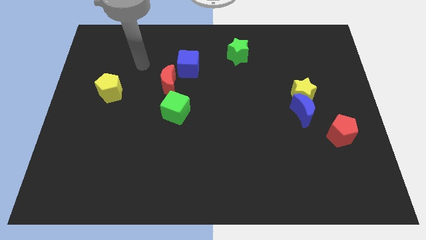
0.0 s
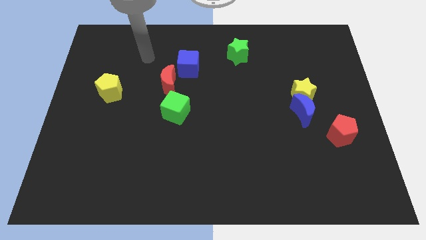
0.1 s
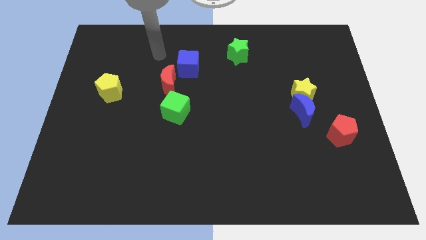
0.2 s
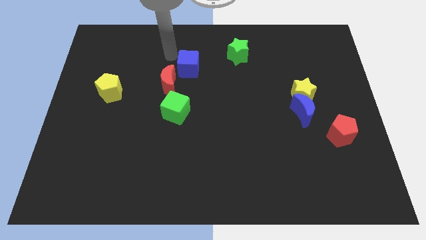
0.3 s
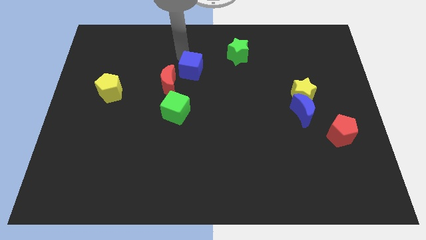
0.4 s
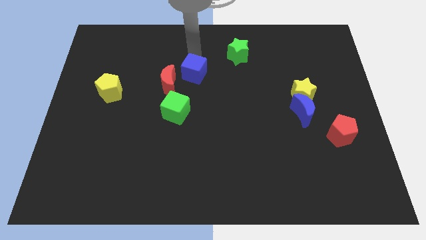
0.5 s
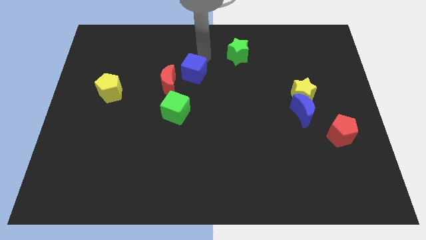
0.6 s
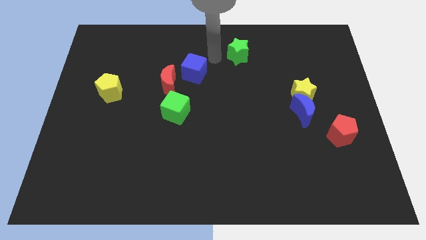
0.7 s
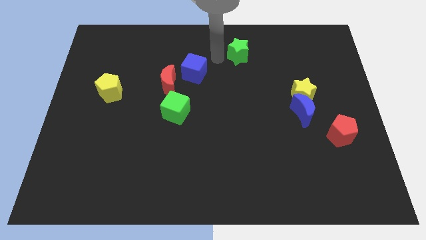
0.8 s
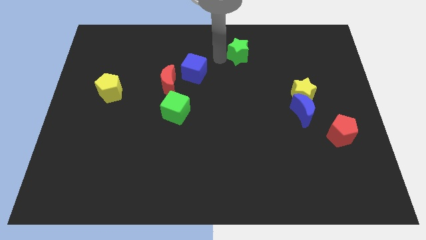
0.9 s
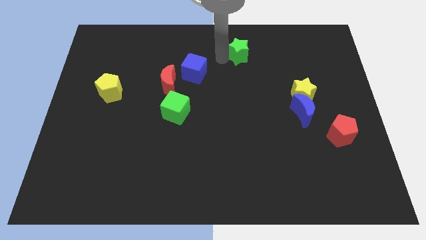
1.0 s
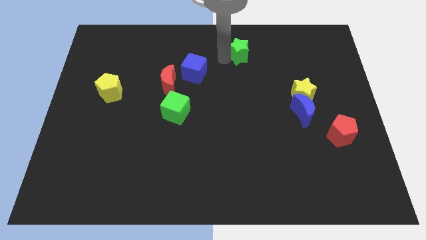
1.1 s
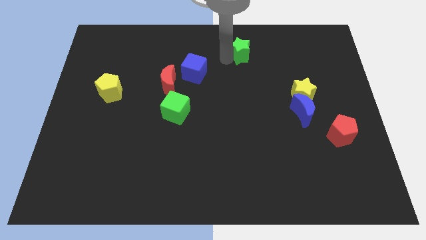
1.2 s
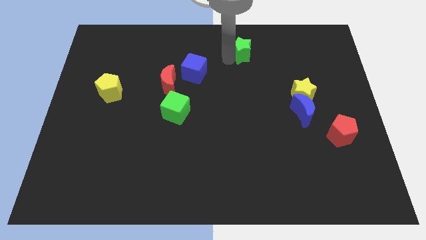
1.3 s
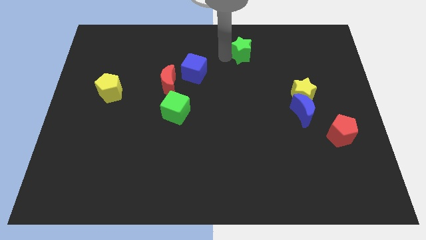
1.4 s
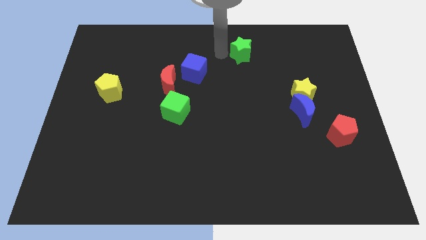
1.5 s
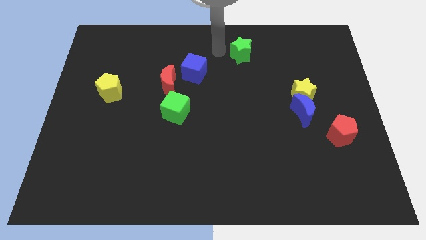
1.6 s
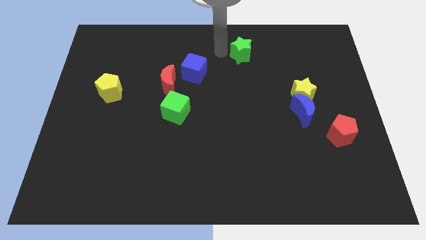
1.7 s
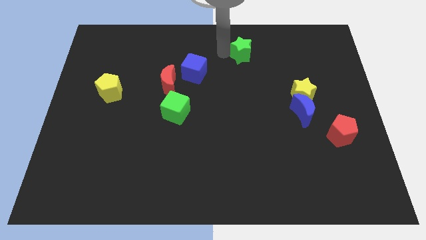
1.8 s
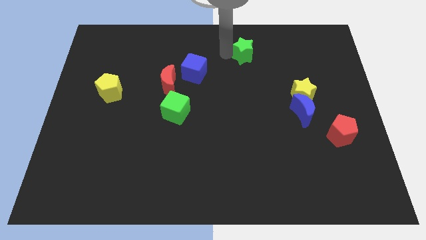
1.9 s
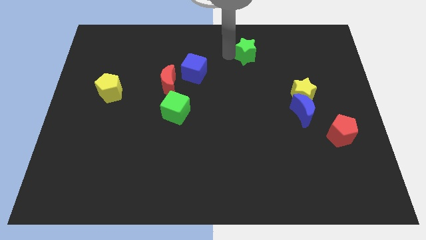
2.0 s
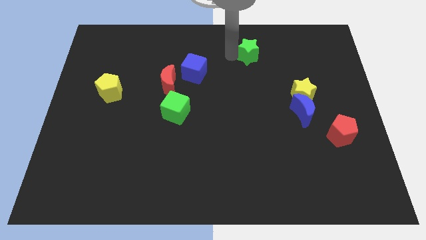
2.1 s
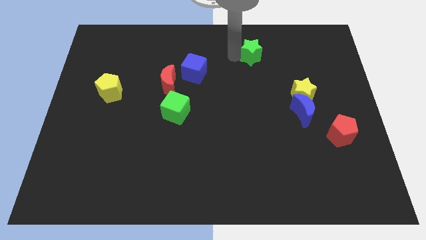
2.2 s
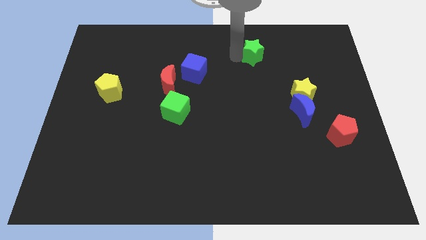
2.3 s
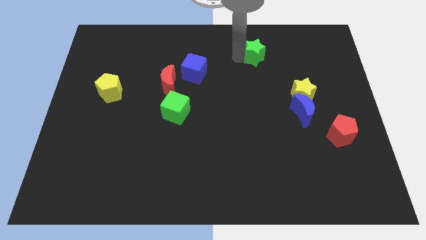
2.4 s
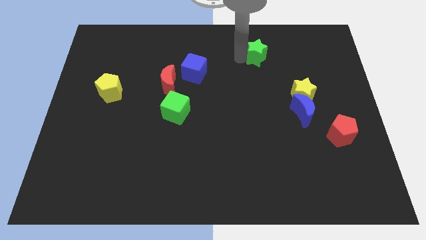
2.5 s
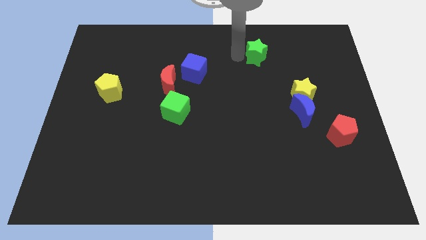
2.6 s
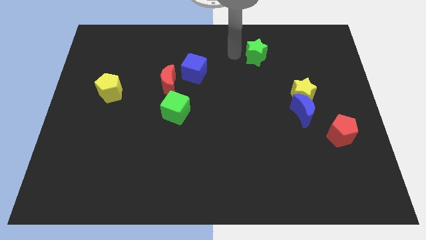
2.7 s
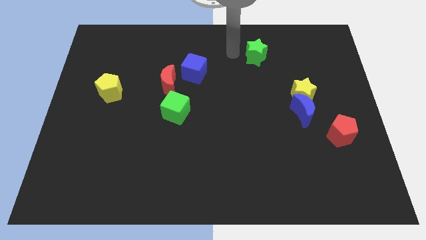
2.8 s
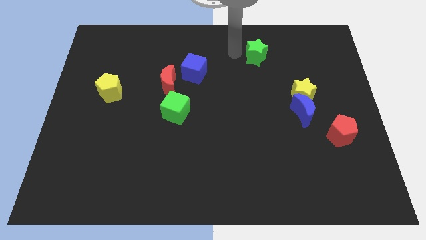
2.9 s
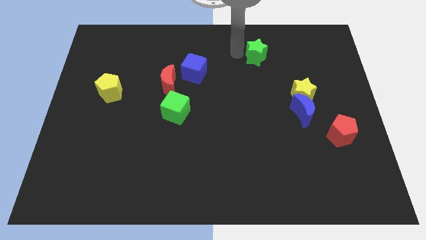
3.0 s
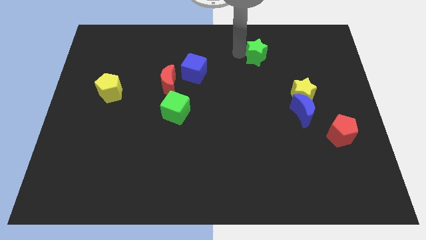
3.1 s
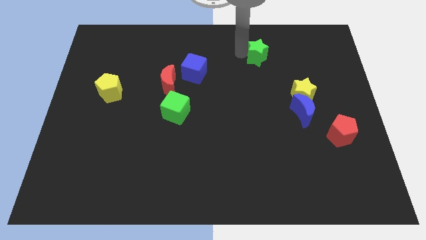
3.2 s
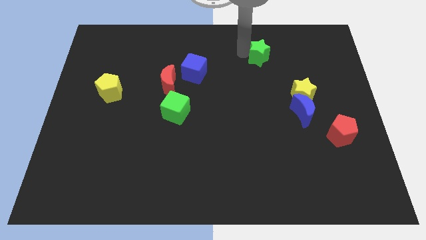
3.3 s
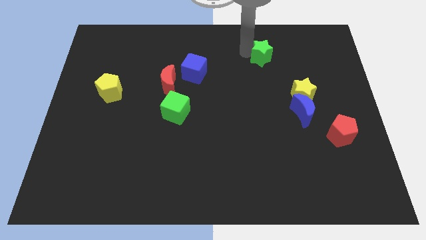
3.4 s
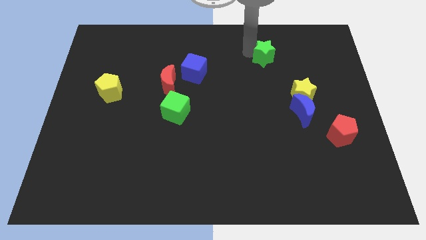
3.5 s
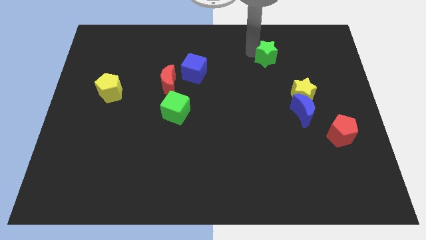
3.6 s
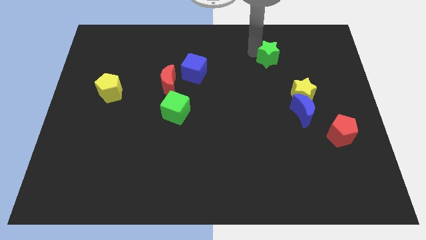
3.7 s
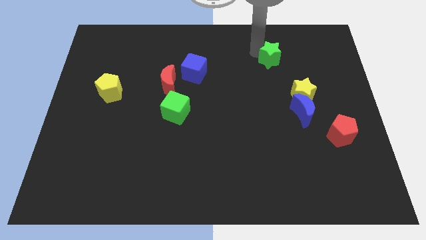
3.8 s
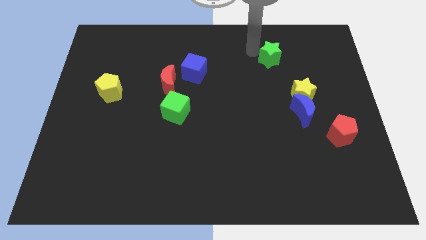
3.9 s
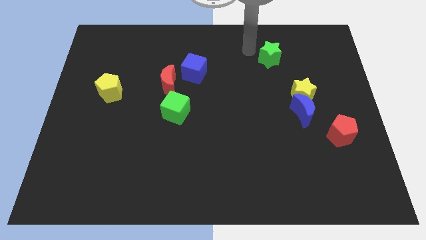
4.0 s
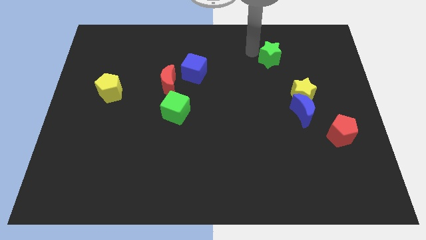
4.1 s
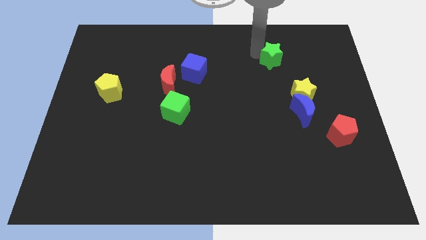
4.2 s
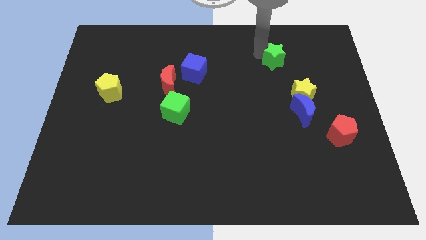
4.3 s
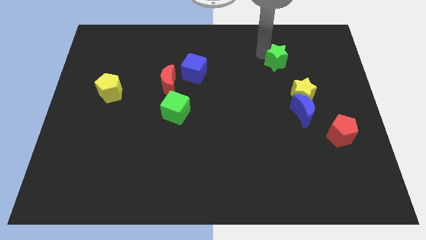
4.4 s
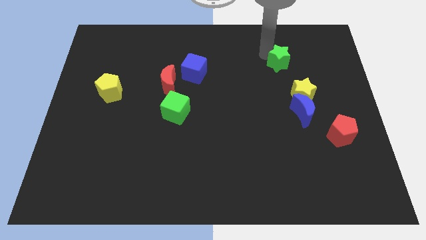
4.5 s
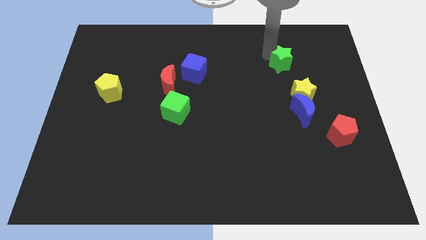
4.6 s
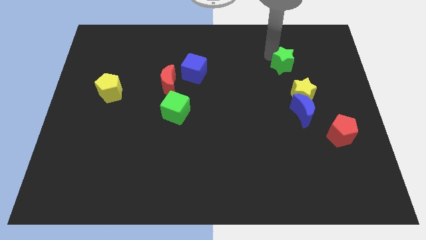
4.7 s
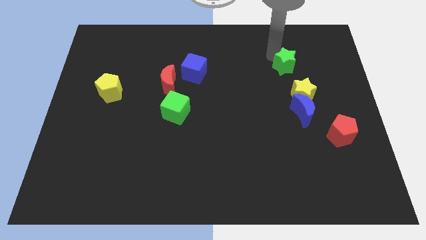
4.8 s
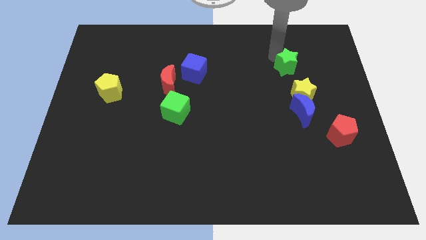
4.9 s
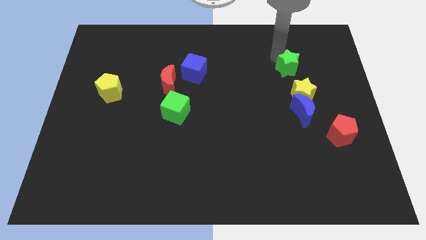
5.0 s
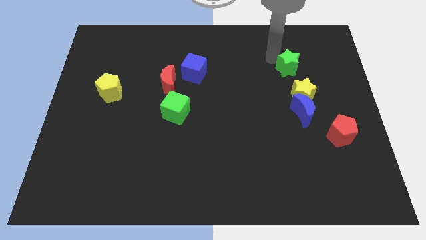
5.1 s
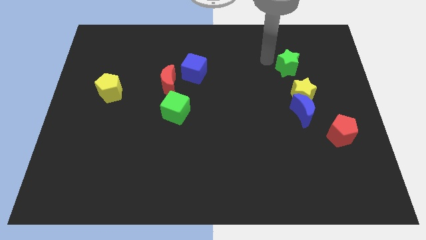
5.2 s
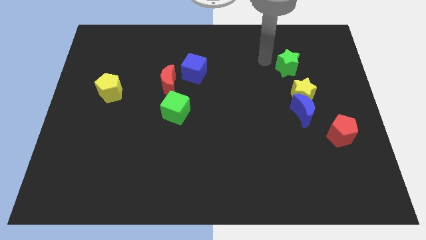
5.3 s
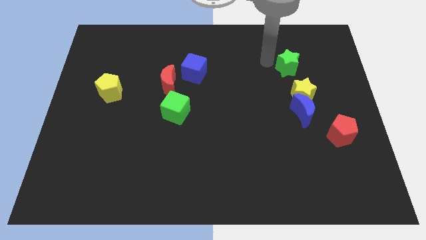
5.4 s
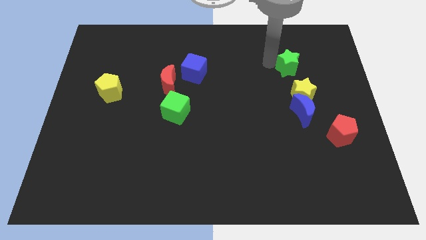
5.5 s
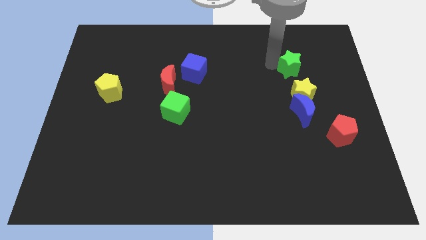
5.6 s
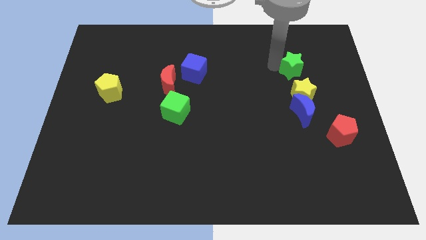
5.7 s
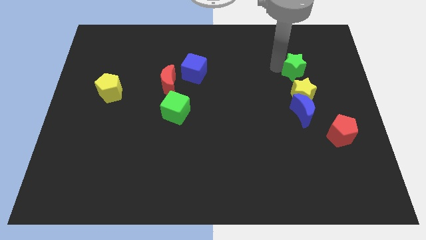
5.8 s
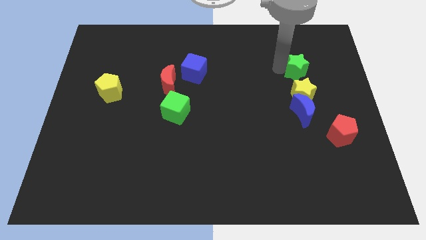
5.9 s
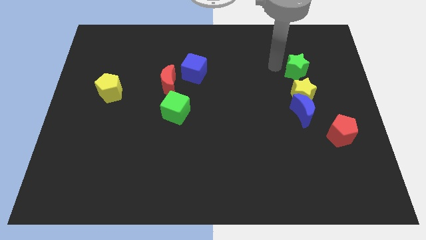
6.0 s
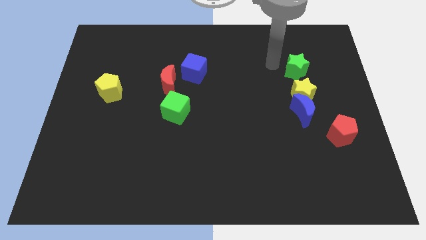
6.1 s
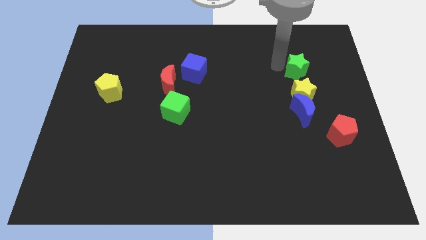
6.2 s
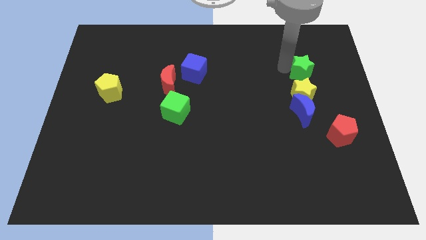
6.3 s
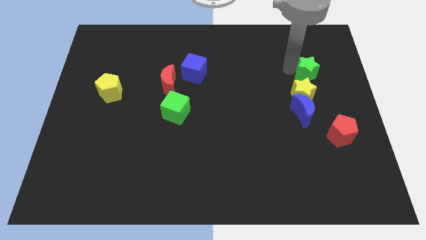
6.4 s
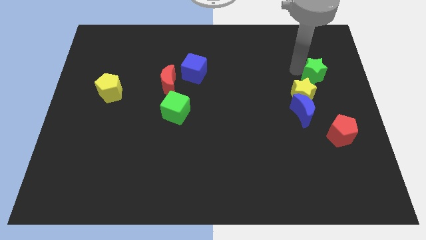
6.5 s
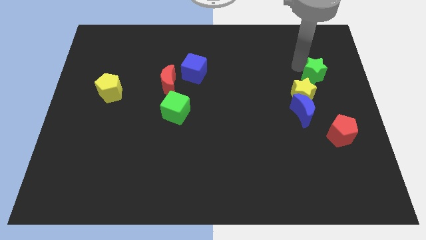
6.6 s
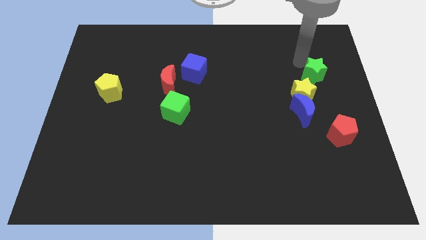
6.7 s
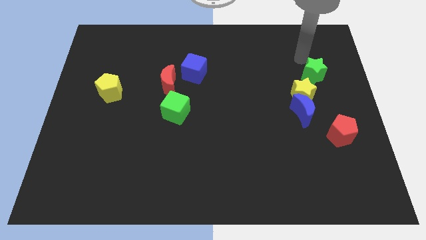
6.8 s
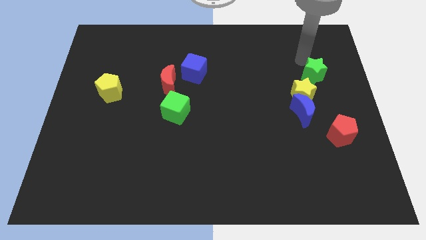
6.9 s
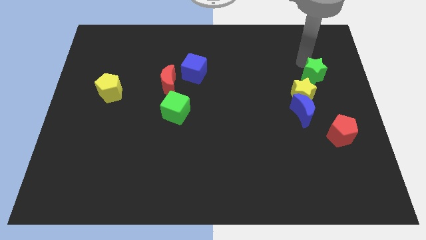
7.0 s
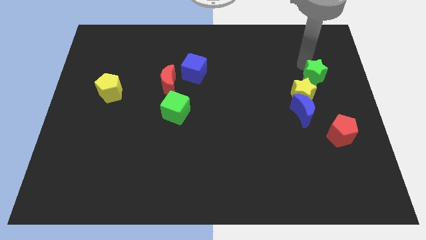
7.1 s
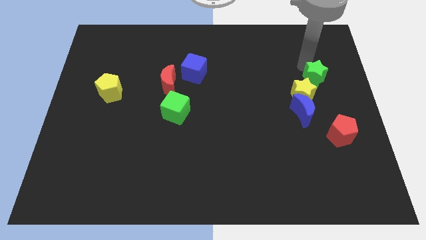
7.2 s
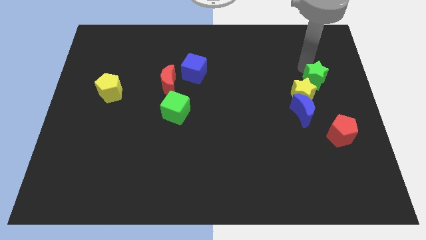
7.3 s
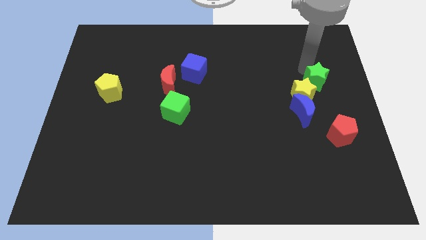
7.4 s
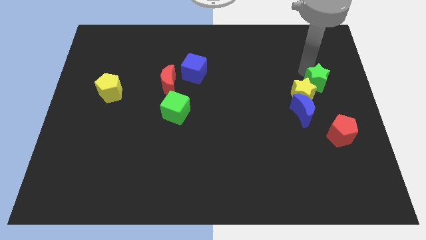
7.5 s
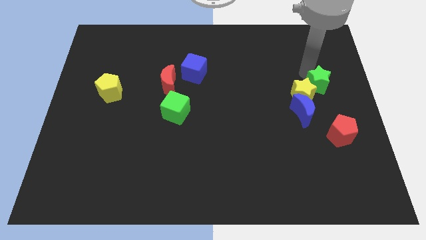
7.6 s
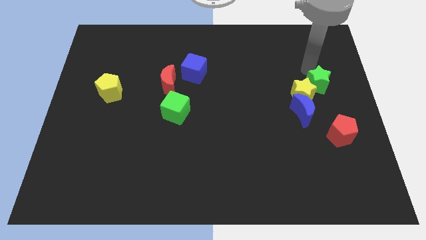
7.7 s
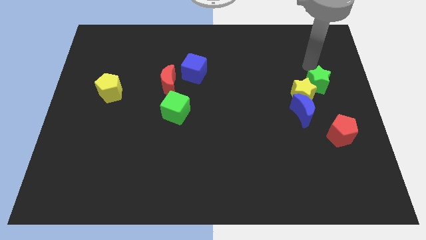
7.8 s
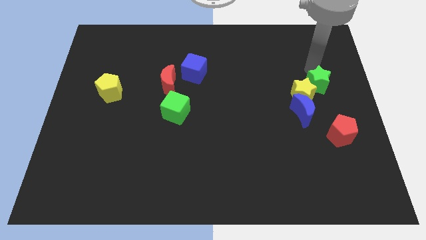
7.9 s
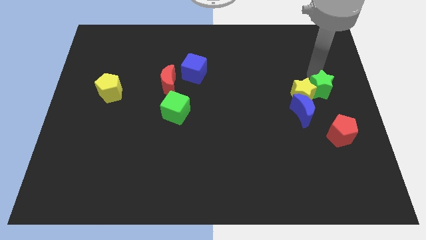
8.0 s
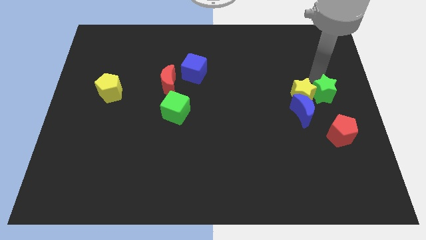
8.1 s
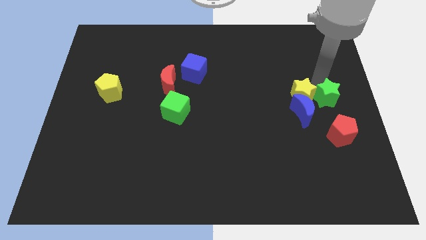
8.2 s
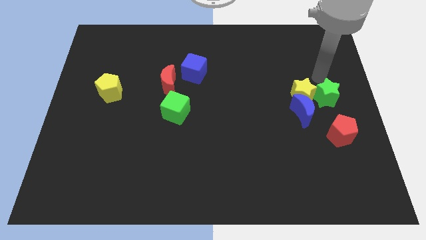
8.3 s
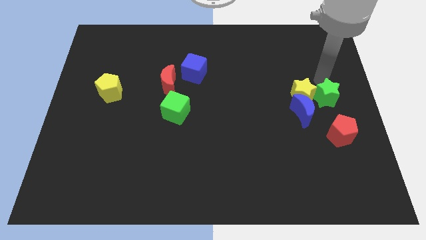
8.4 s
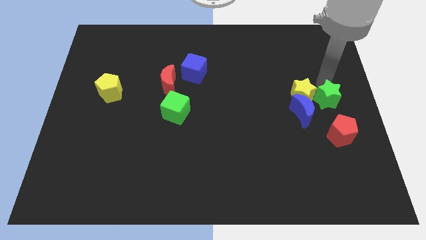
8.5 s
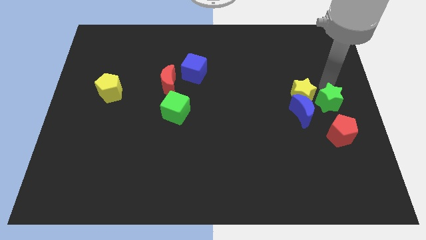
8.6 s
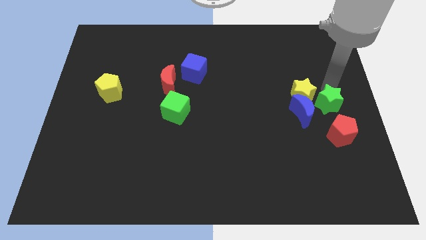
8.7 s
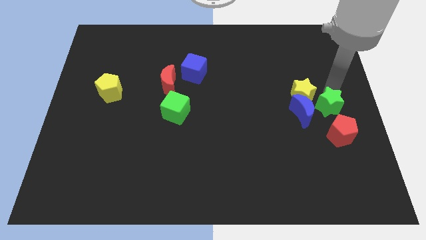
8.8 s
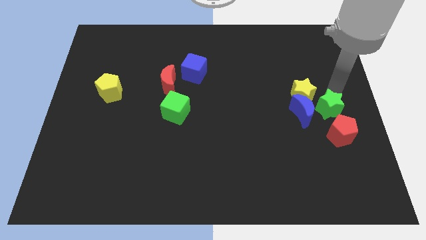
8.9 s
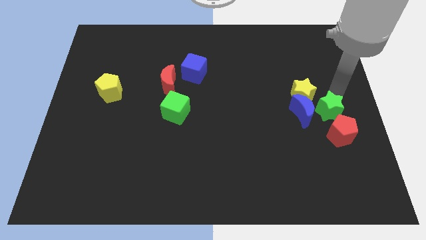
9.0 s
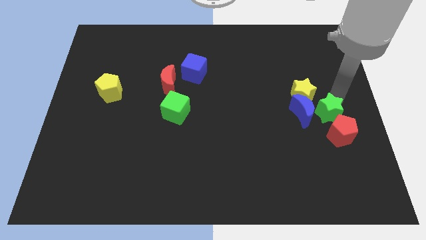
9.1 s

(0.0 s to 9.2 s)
slide the green star to the red pentagon
